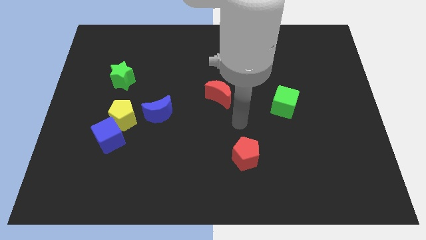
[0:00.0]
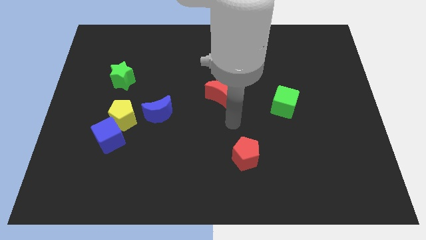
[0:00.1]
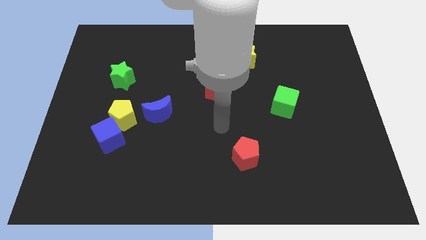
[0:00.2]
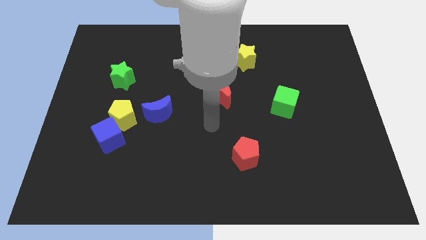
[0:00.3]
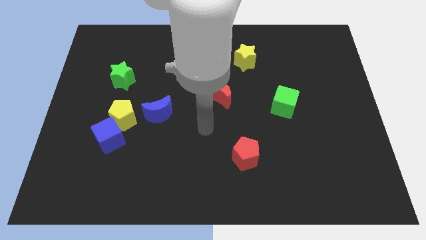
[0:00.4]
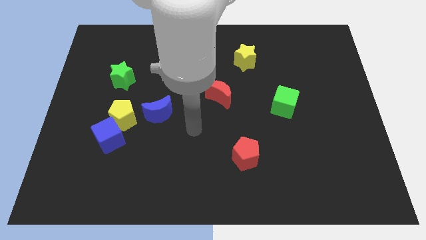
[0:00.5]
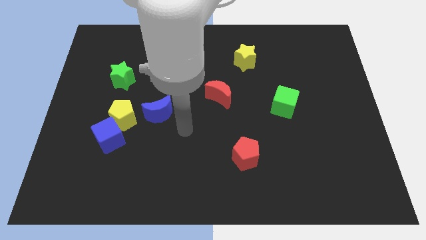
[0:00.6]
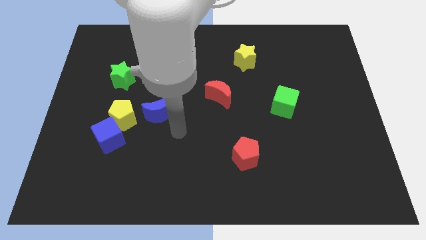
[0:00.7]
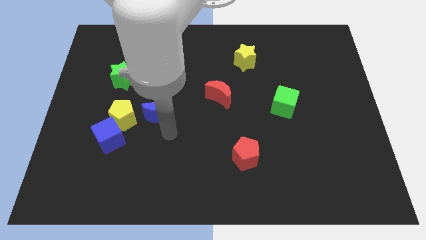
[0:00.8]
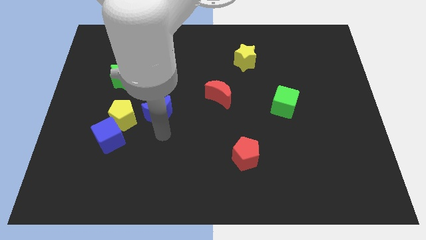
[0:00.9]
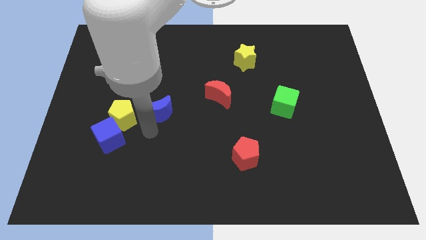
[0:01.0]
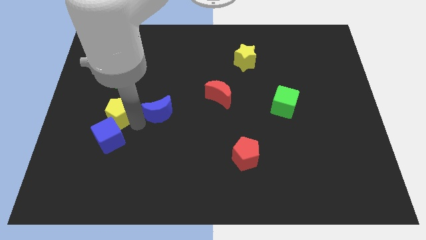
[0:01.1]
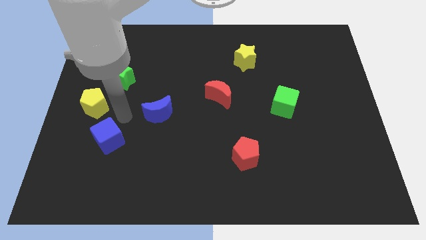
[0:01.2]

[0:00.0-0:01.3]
pull the blue cube apart from the yellow pentagon

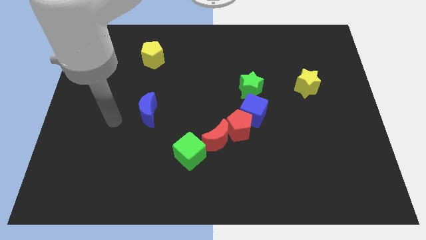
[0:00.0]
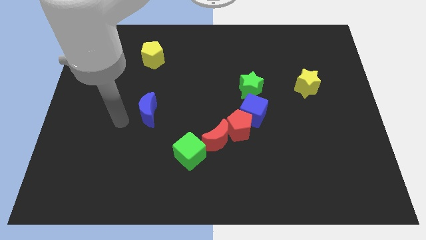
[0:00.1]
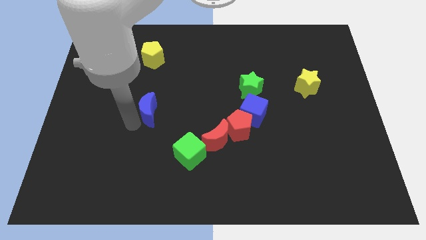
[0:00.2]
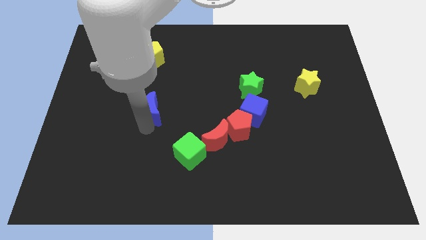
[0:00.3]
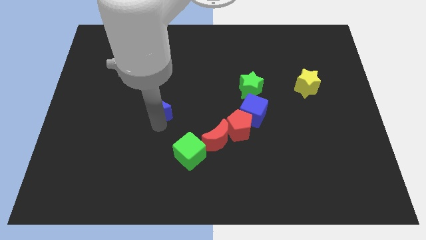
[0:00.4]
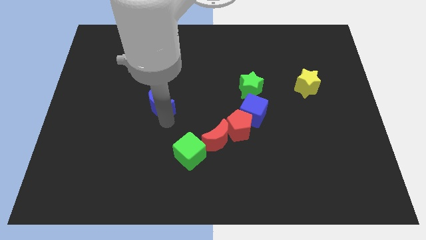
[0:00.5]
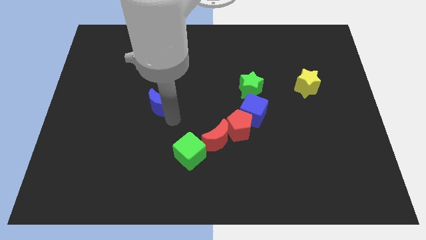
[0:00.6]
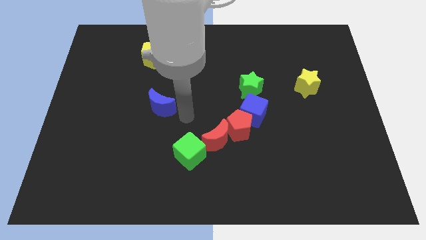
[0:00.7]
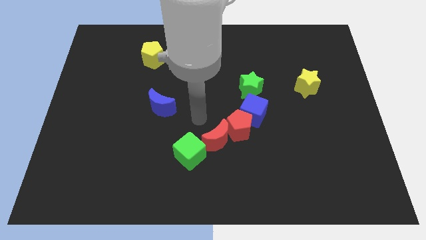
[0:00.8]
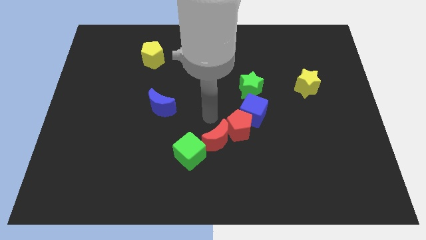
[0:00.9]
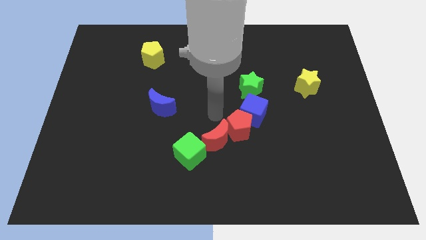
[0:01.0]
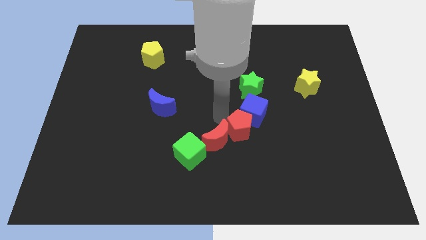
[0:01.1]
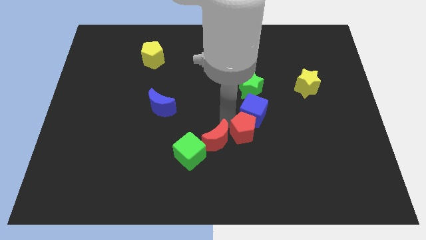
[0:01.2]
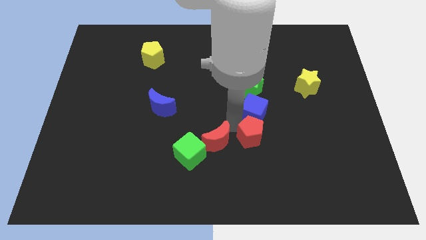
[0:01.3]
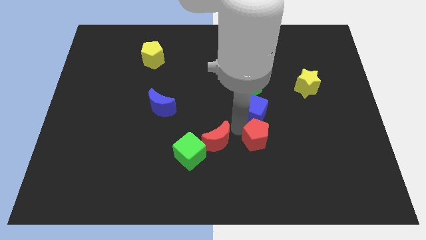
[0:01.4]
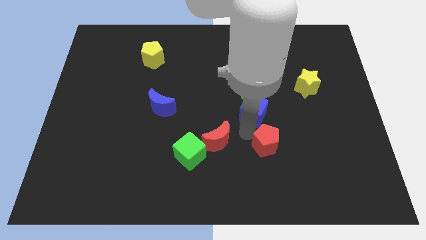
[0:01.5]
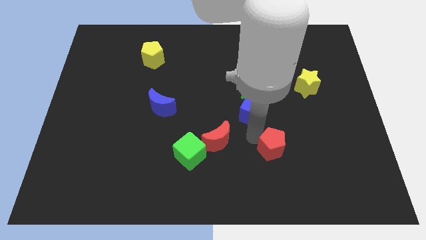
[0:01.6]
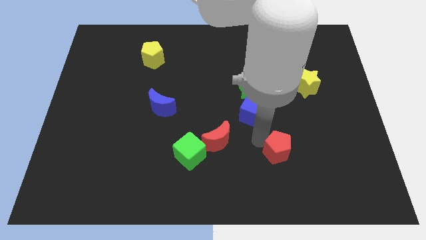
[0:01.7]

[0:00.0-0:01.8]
pull the red pentagon apart from the blue cube and red moon

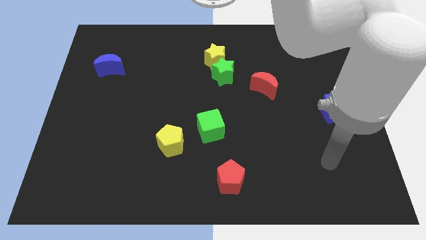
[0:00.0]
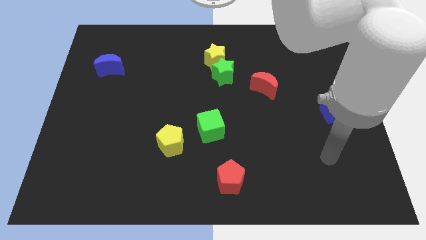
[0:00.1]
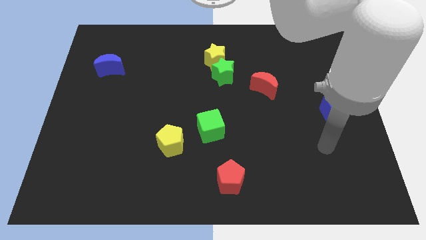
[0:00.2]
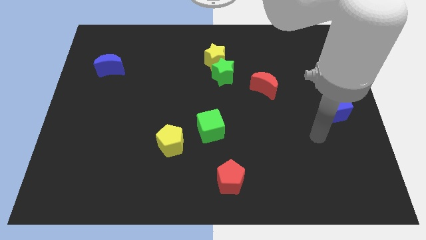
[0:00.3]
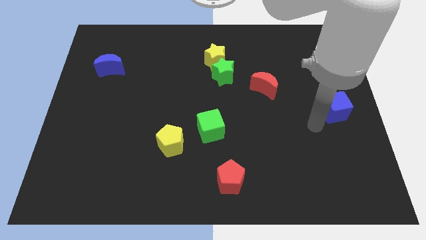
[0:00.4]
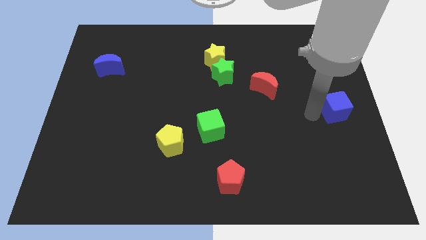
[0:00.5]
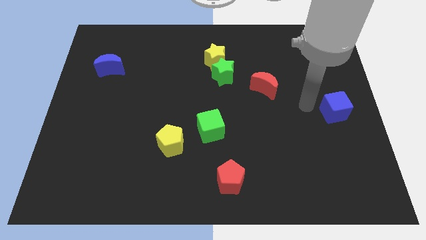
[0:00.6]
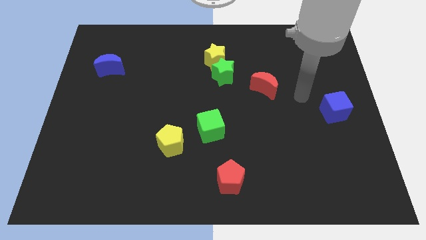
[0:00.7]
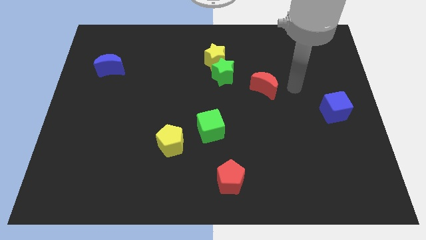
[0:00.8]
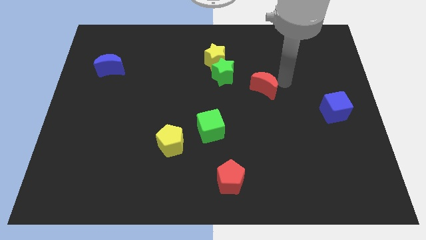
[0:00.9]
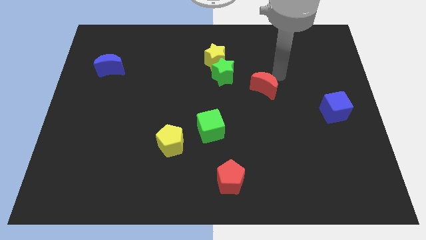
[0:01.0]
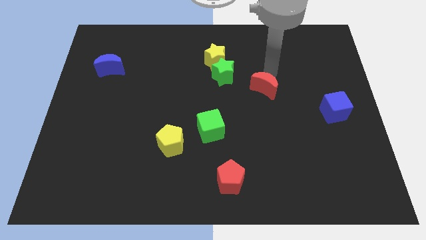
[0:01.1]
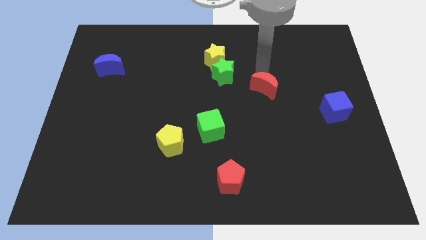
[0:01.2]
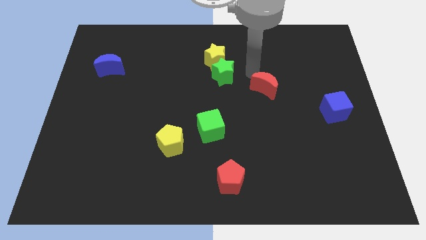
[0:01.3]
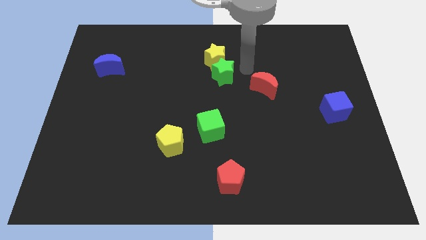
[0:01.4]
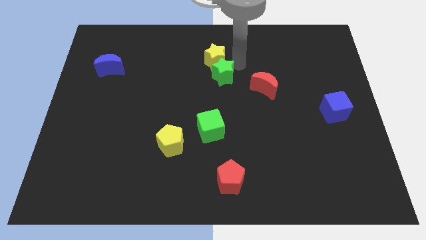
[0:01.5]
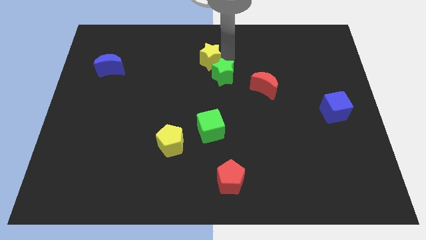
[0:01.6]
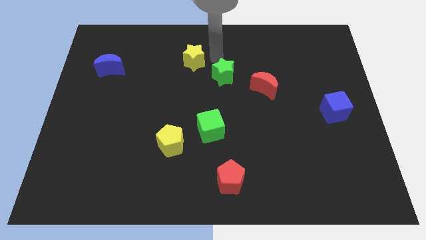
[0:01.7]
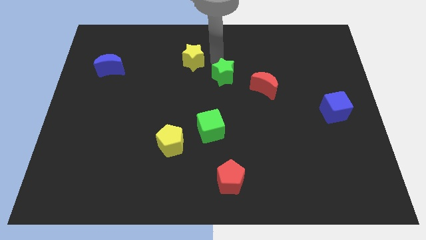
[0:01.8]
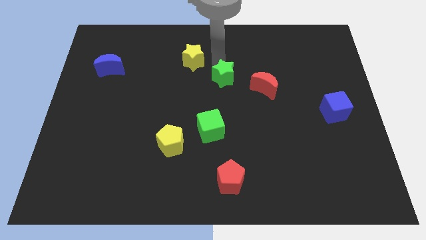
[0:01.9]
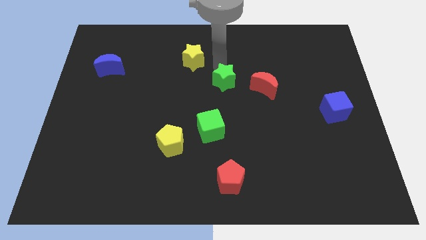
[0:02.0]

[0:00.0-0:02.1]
separate the green star from the yellow star

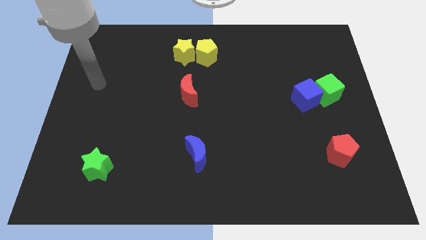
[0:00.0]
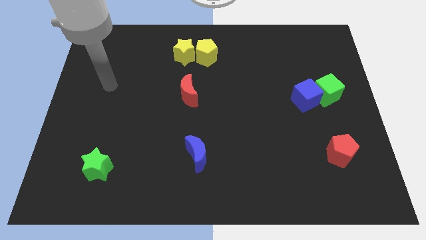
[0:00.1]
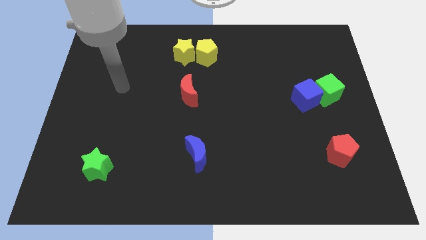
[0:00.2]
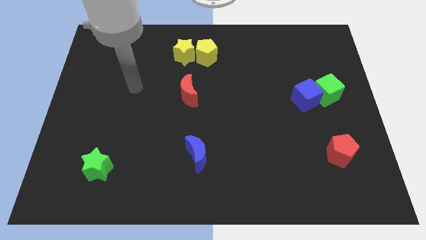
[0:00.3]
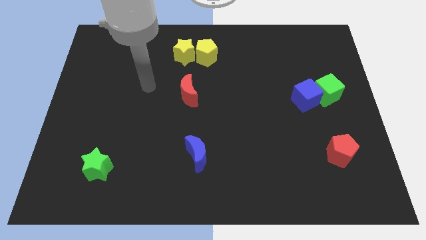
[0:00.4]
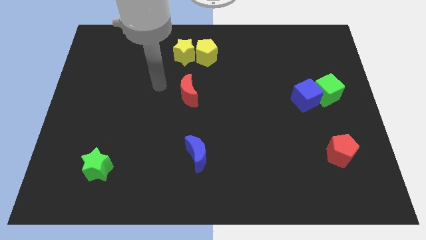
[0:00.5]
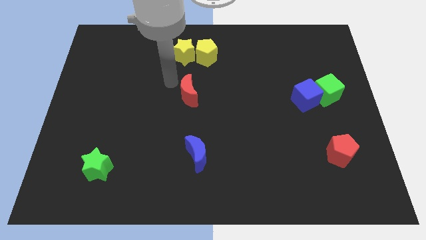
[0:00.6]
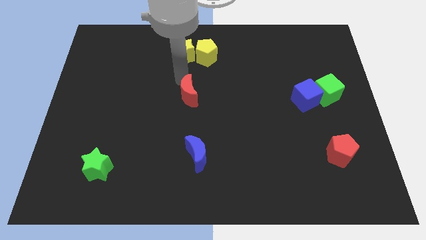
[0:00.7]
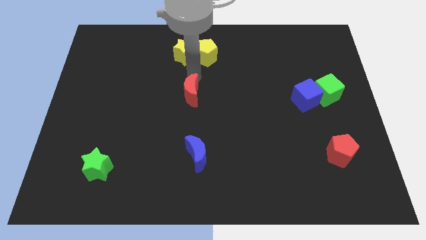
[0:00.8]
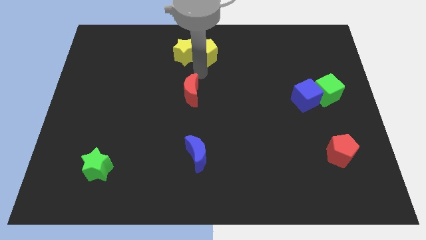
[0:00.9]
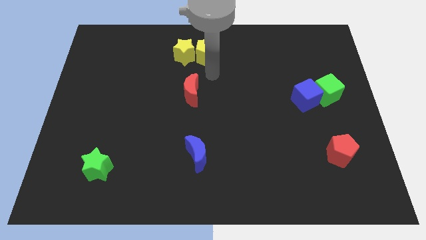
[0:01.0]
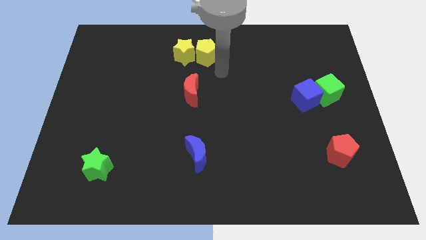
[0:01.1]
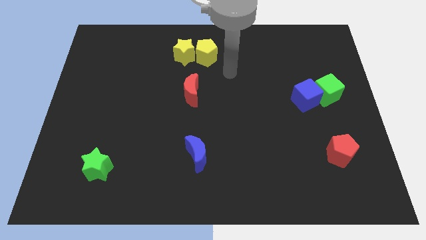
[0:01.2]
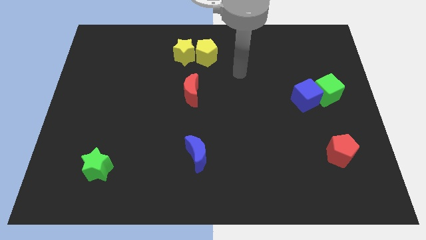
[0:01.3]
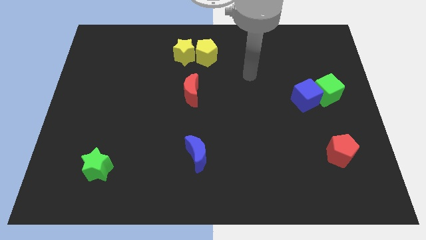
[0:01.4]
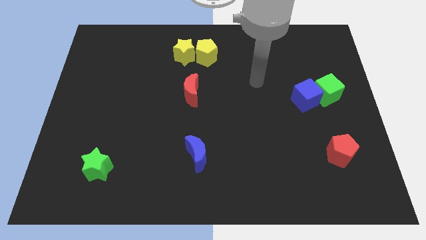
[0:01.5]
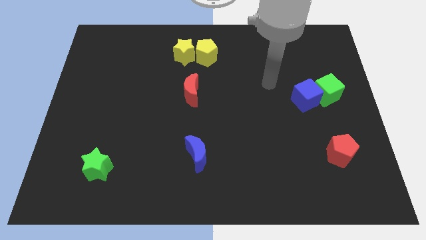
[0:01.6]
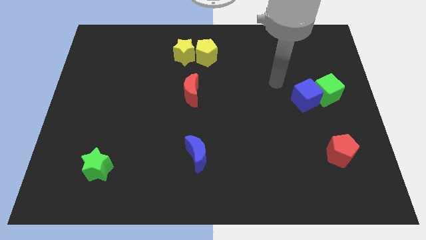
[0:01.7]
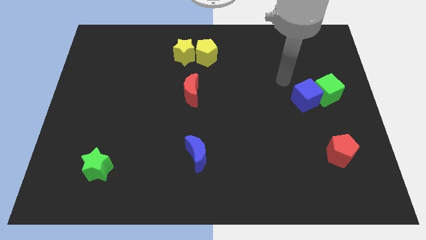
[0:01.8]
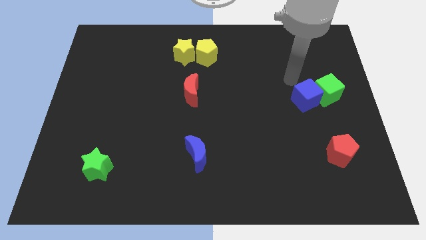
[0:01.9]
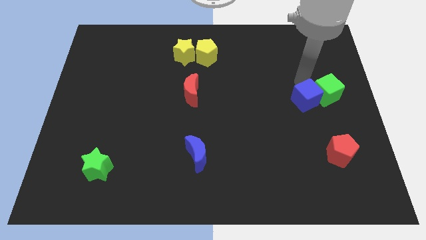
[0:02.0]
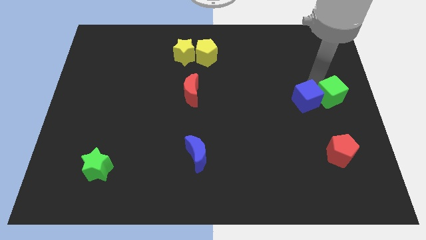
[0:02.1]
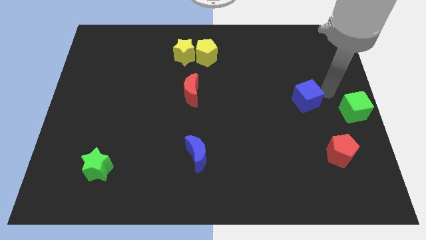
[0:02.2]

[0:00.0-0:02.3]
separate the blue cube from the green cube

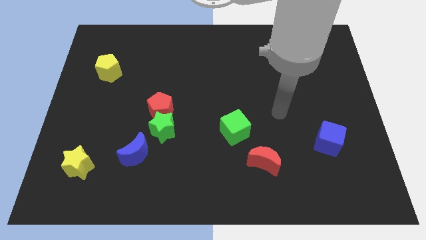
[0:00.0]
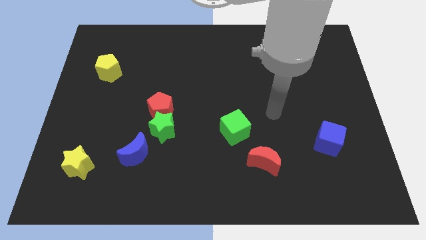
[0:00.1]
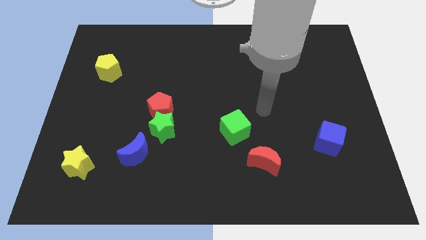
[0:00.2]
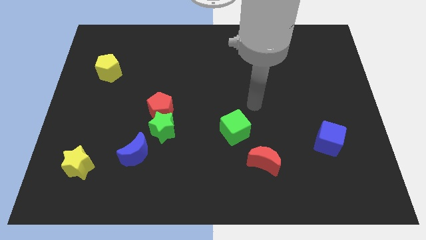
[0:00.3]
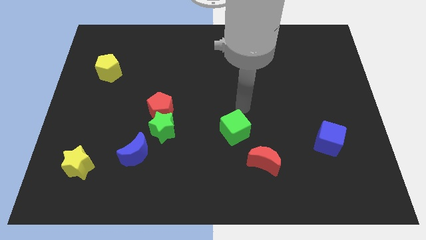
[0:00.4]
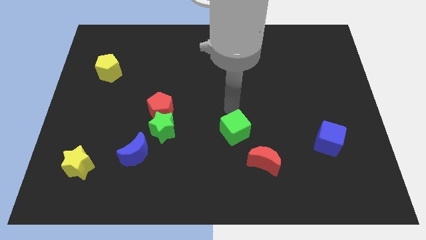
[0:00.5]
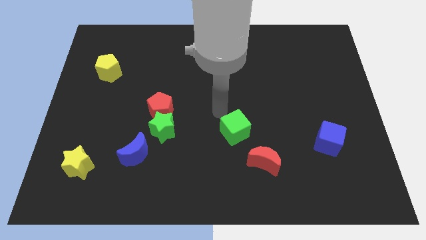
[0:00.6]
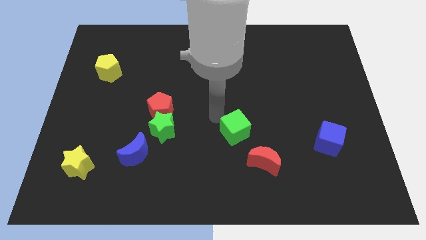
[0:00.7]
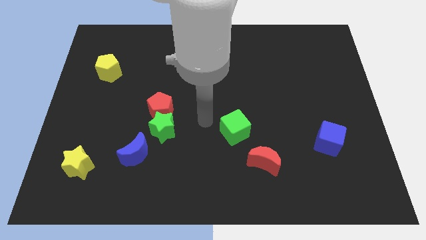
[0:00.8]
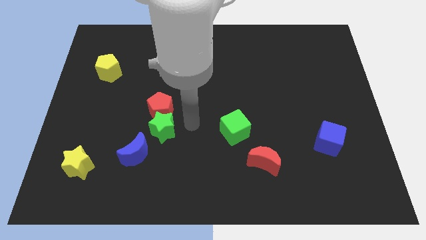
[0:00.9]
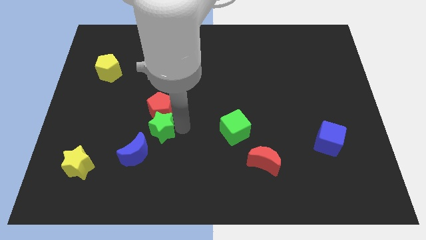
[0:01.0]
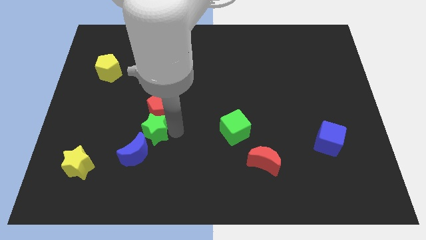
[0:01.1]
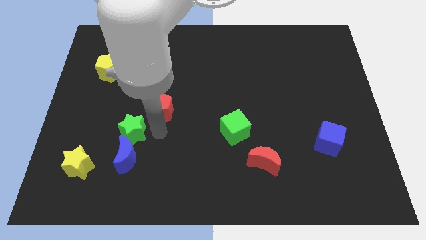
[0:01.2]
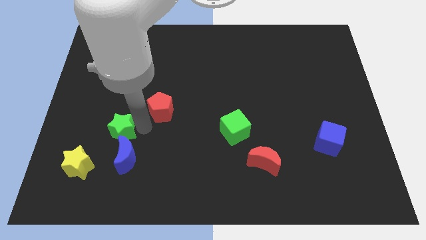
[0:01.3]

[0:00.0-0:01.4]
separate the red pentagon from the green star

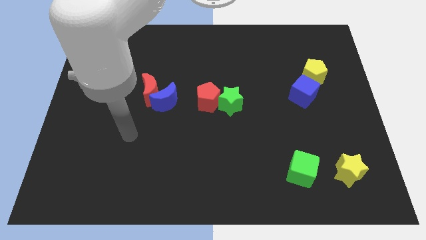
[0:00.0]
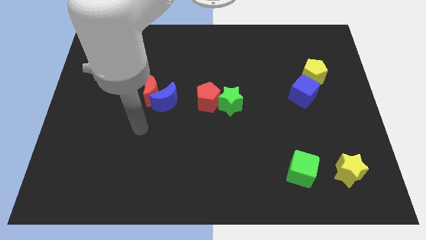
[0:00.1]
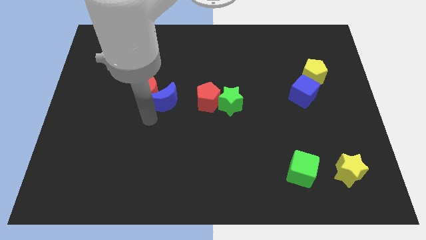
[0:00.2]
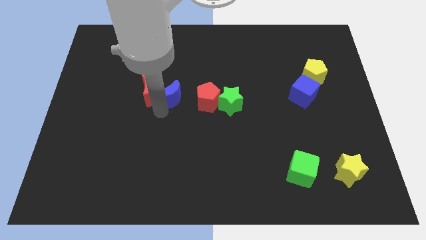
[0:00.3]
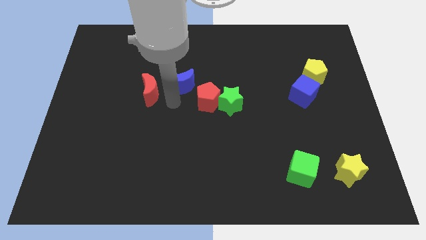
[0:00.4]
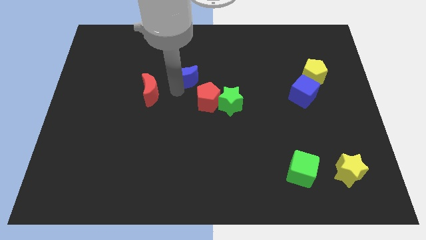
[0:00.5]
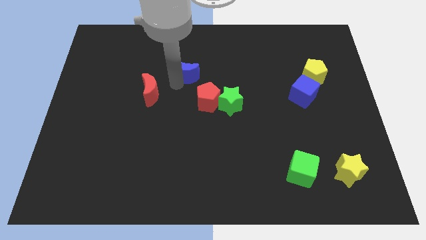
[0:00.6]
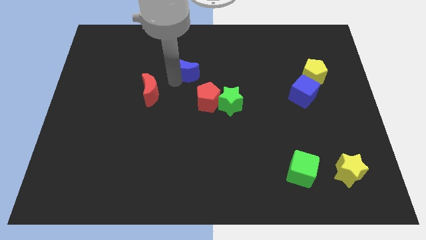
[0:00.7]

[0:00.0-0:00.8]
pull the red moon apart from the blue moon
